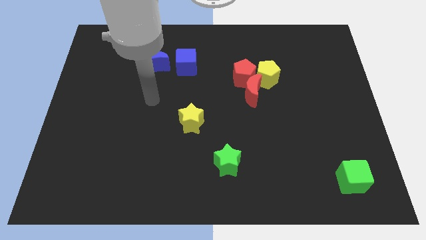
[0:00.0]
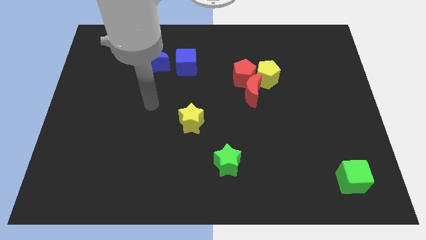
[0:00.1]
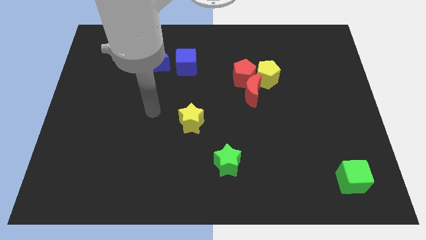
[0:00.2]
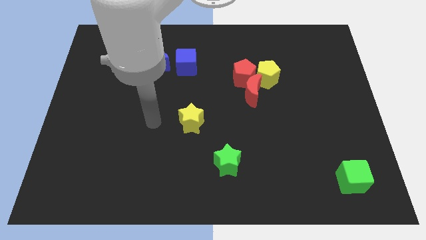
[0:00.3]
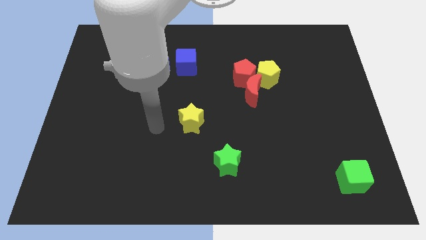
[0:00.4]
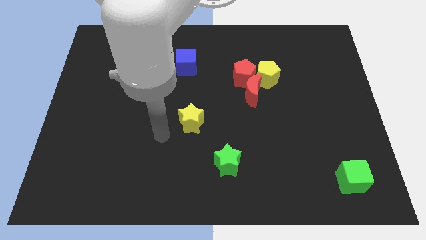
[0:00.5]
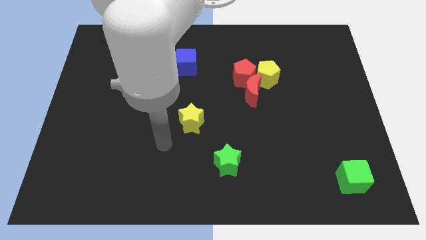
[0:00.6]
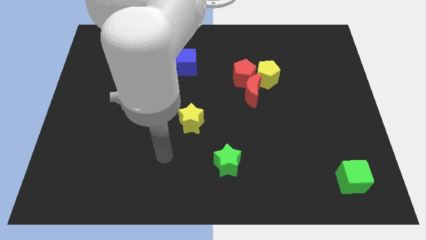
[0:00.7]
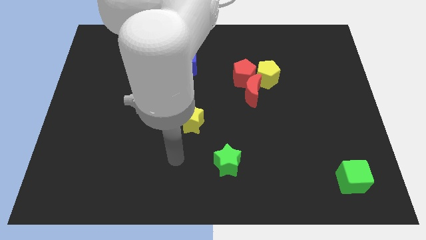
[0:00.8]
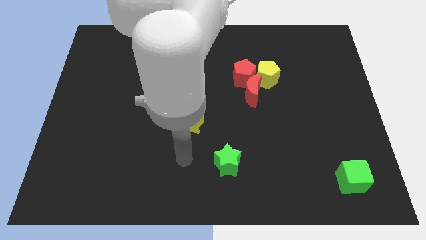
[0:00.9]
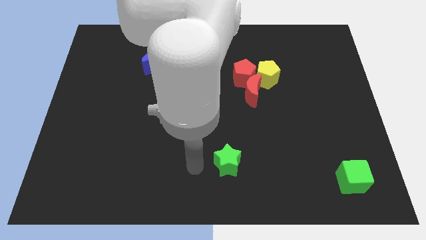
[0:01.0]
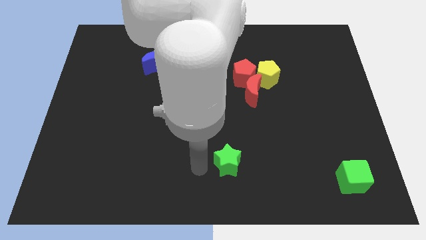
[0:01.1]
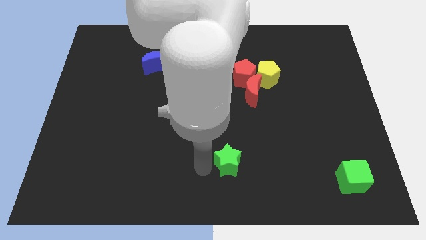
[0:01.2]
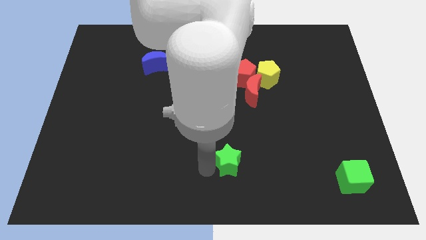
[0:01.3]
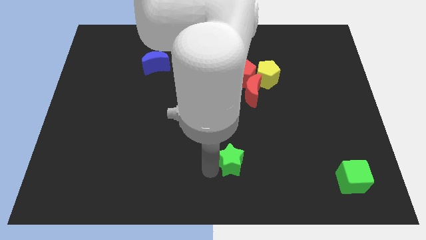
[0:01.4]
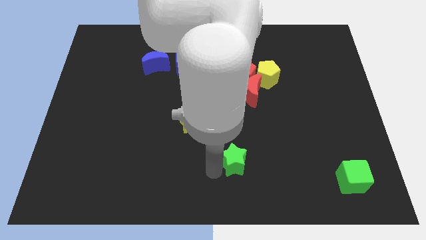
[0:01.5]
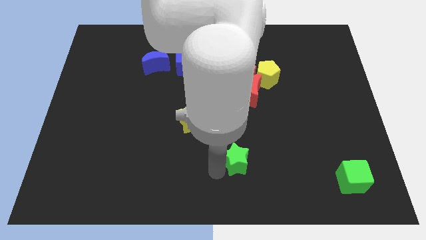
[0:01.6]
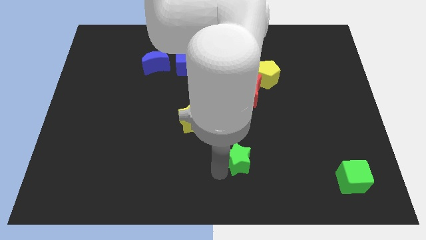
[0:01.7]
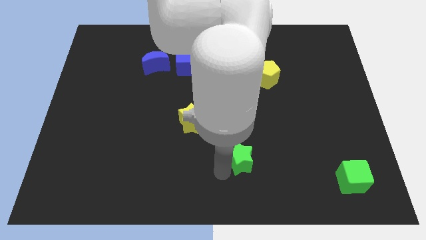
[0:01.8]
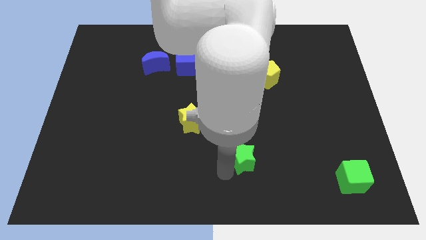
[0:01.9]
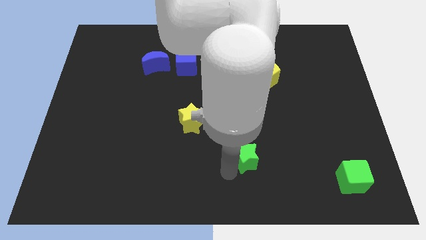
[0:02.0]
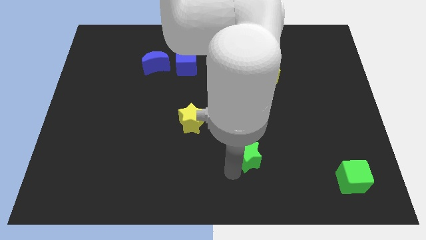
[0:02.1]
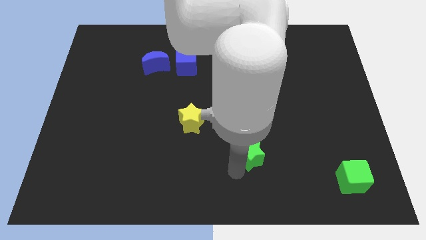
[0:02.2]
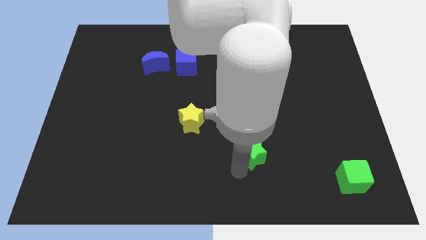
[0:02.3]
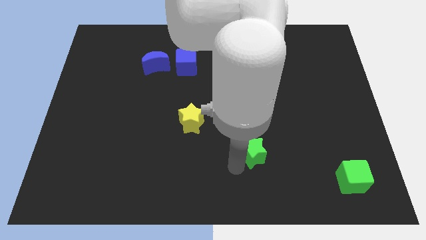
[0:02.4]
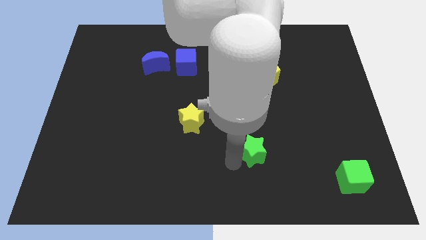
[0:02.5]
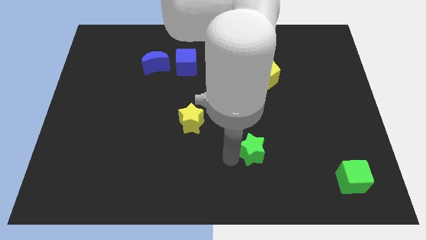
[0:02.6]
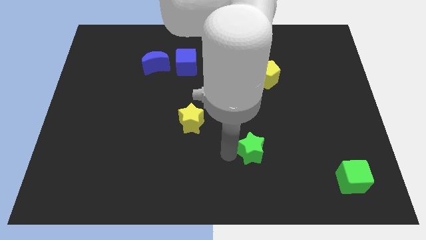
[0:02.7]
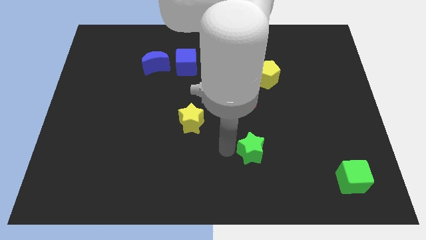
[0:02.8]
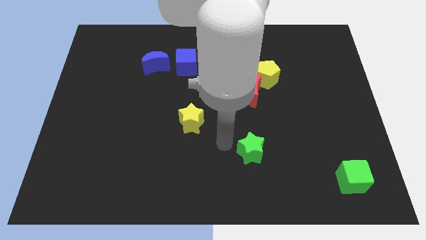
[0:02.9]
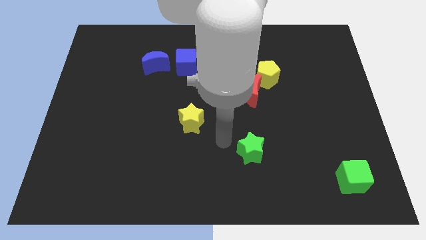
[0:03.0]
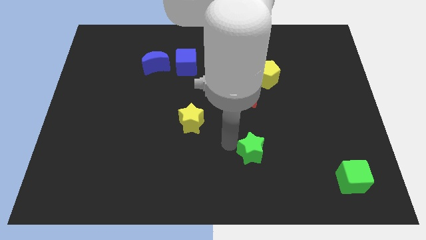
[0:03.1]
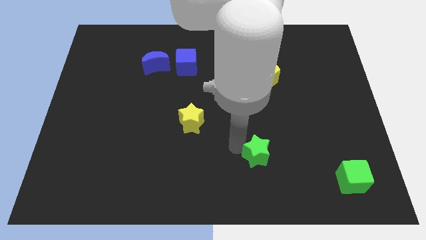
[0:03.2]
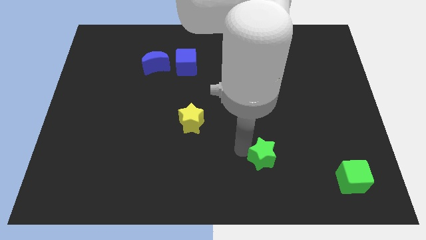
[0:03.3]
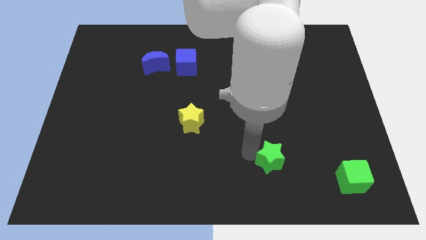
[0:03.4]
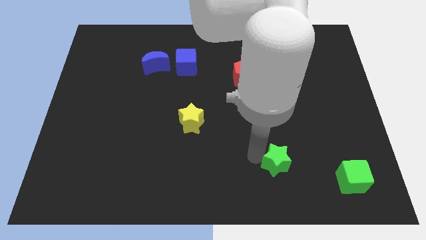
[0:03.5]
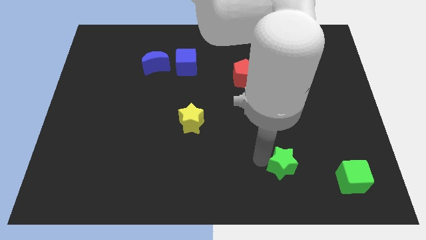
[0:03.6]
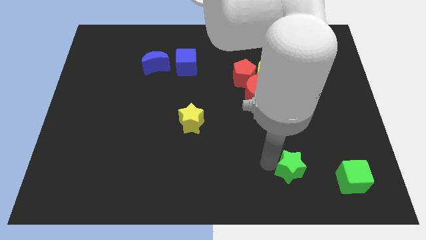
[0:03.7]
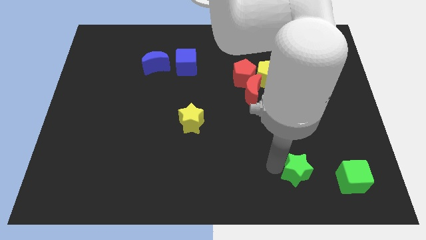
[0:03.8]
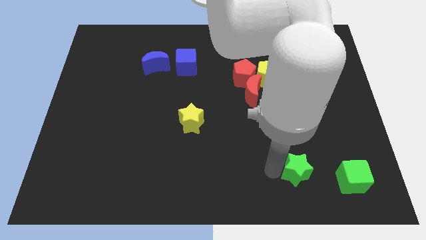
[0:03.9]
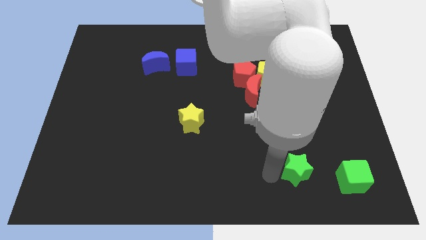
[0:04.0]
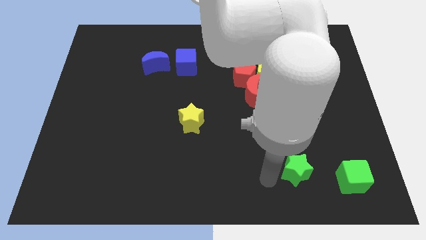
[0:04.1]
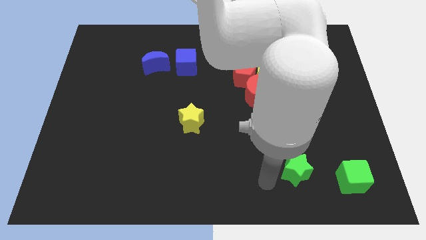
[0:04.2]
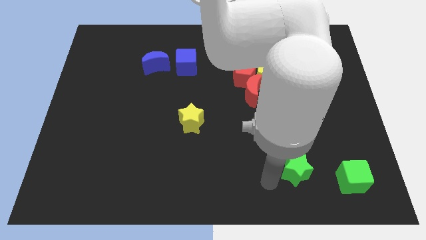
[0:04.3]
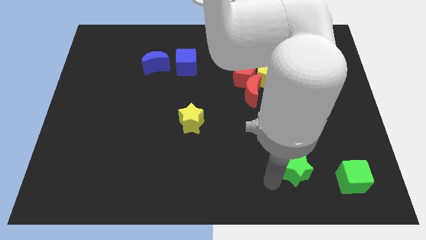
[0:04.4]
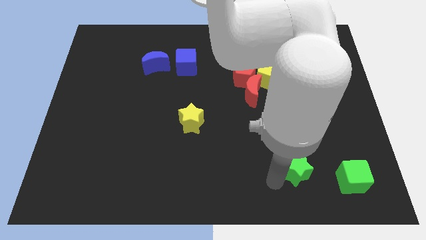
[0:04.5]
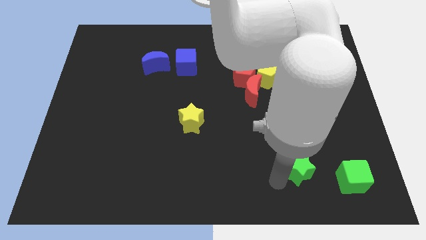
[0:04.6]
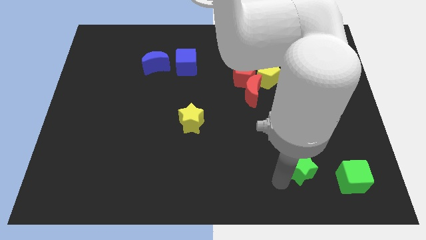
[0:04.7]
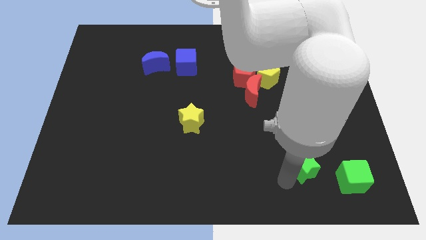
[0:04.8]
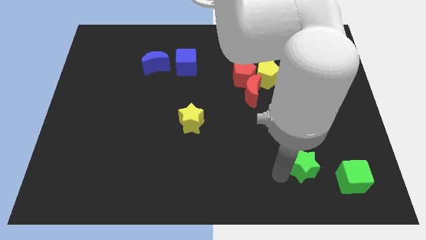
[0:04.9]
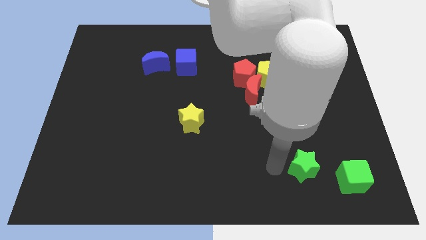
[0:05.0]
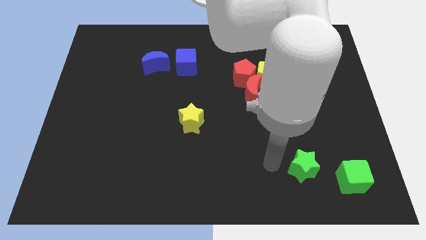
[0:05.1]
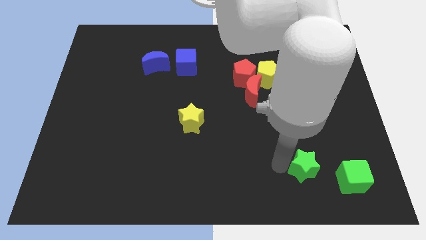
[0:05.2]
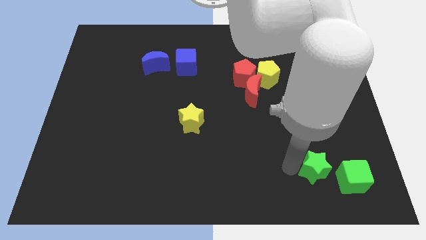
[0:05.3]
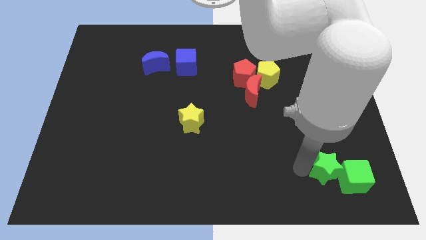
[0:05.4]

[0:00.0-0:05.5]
move the green star close to the green cube

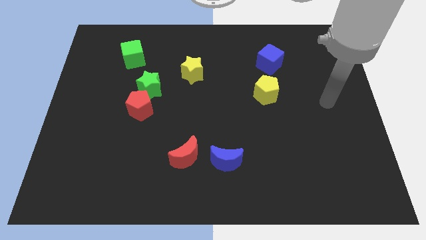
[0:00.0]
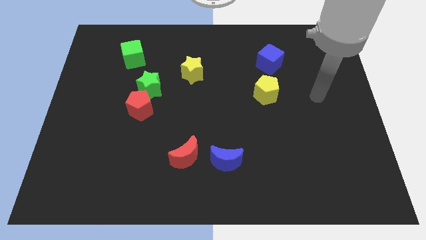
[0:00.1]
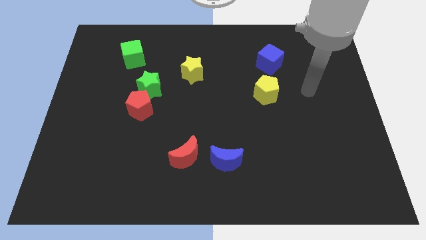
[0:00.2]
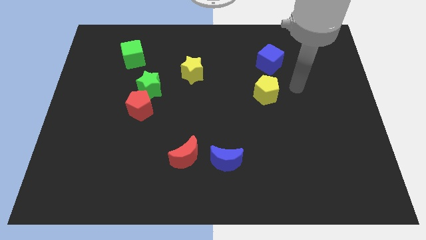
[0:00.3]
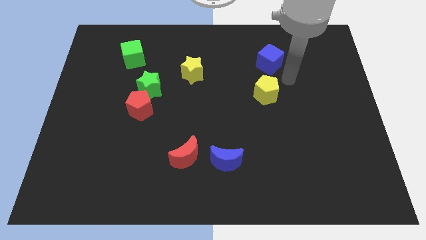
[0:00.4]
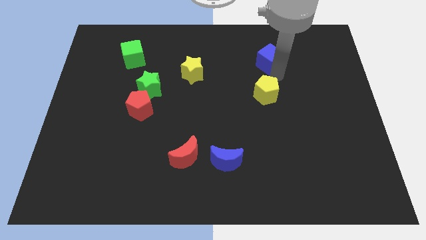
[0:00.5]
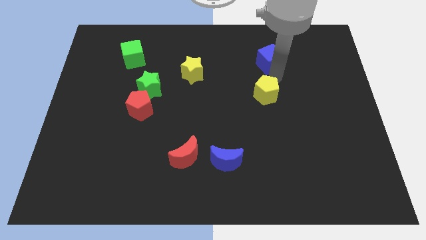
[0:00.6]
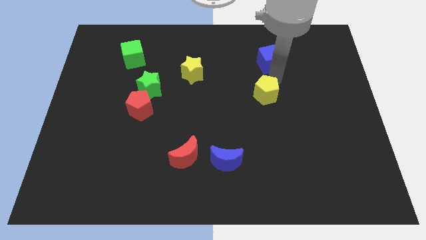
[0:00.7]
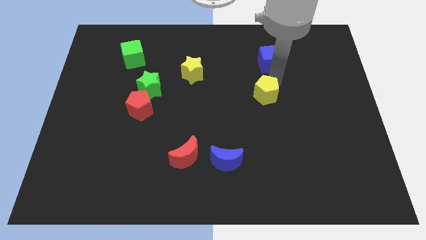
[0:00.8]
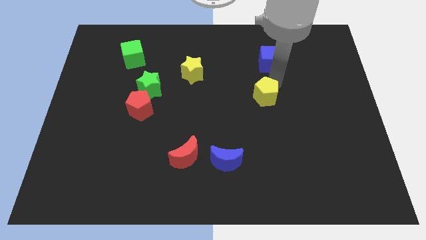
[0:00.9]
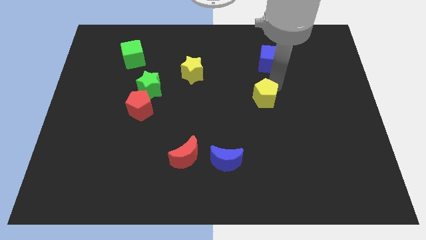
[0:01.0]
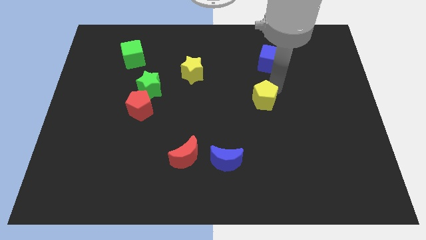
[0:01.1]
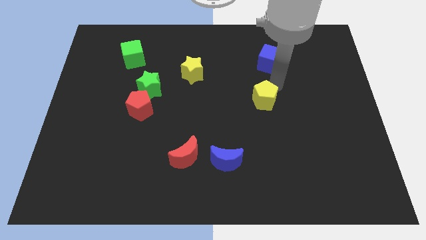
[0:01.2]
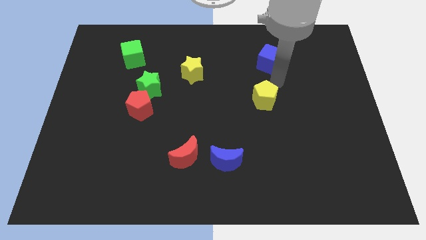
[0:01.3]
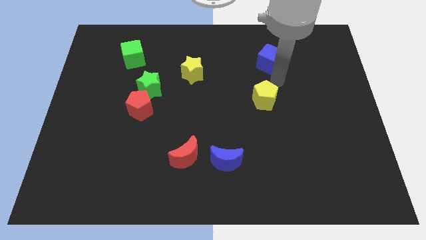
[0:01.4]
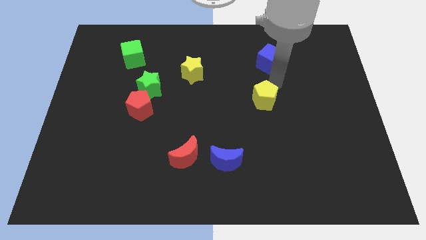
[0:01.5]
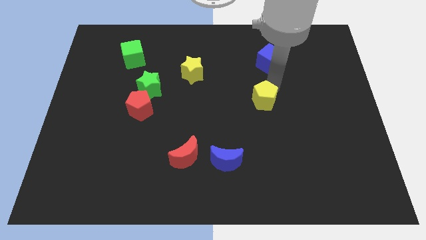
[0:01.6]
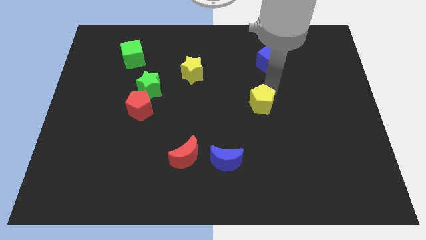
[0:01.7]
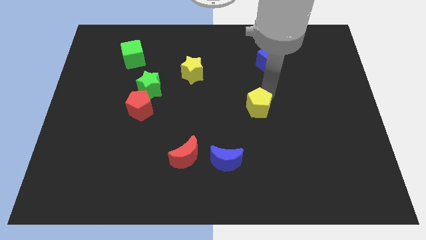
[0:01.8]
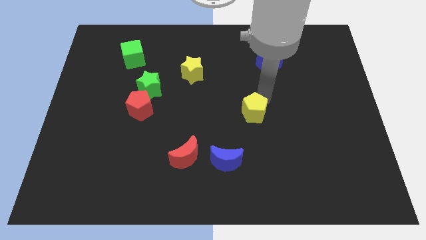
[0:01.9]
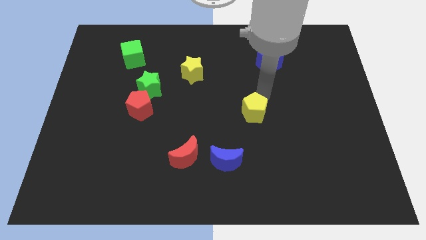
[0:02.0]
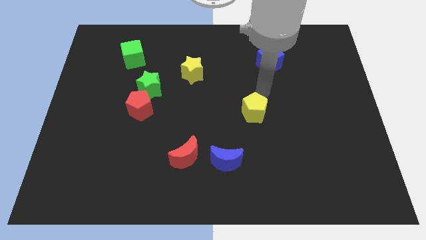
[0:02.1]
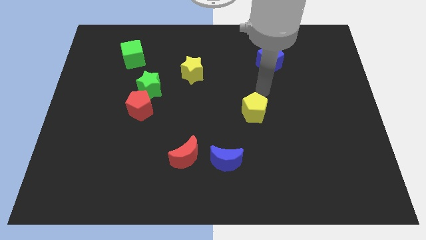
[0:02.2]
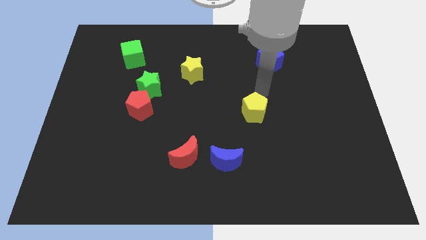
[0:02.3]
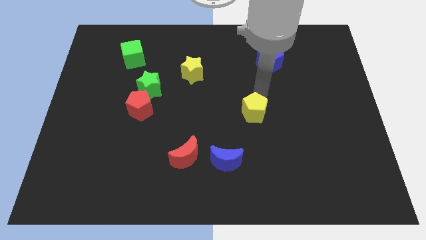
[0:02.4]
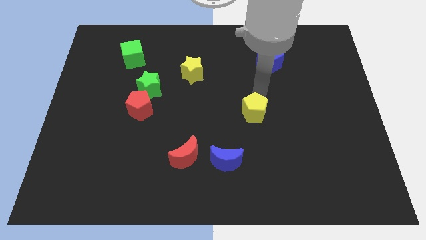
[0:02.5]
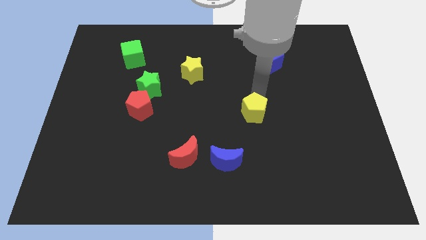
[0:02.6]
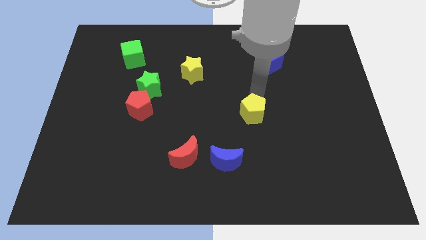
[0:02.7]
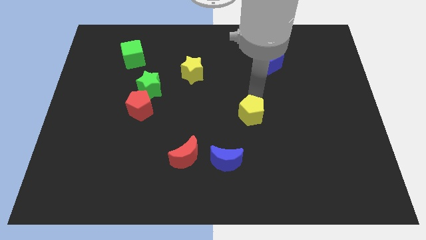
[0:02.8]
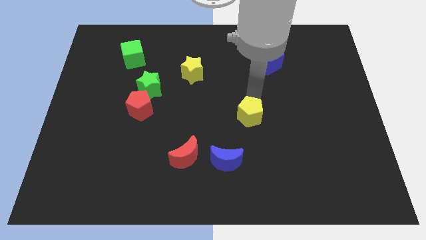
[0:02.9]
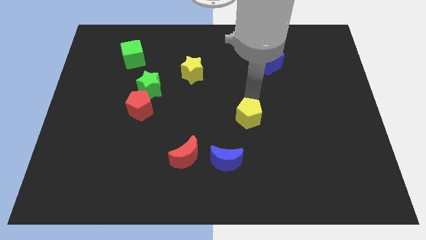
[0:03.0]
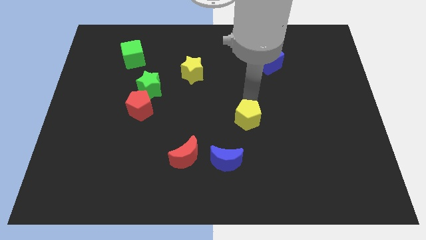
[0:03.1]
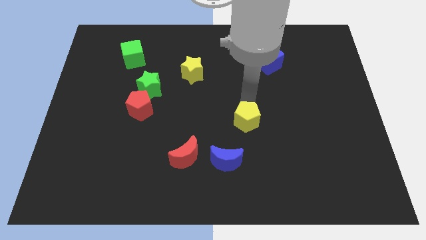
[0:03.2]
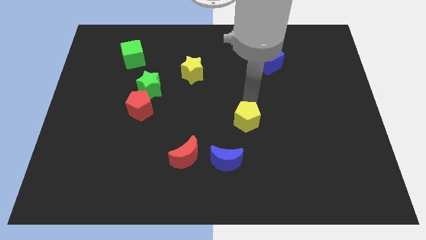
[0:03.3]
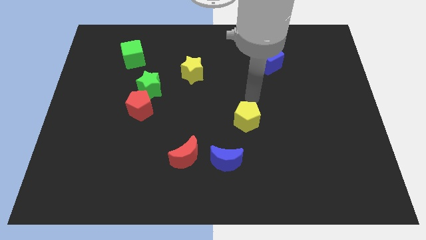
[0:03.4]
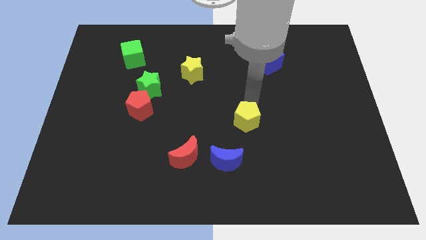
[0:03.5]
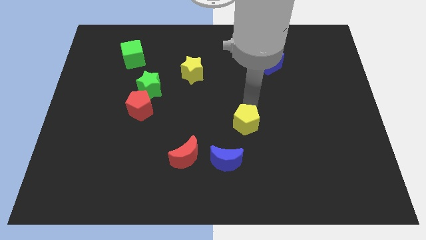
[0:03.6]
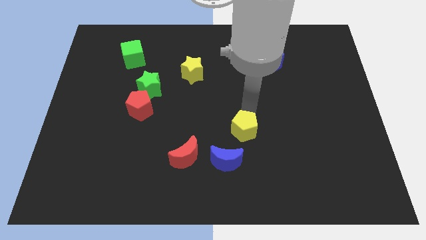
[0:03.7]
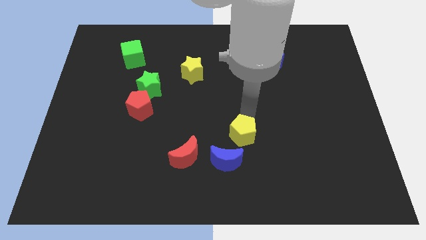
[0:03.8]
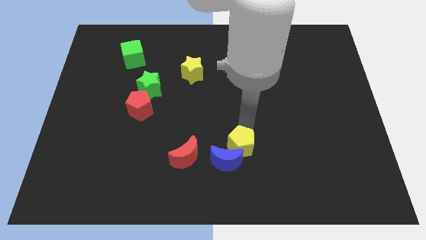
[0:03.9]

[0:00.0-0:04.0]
move the yellow pentagon next to the blue moon
